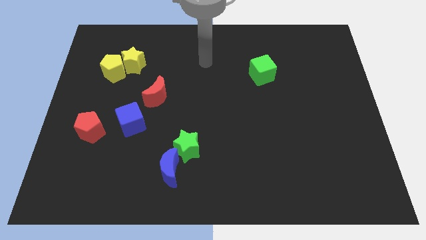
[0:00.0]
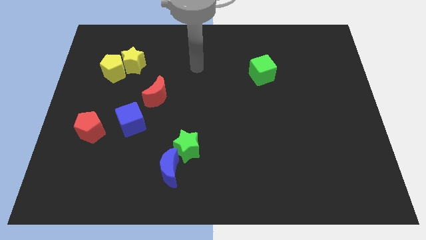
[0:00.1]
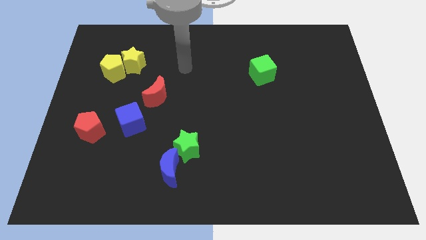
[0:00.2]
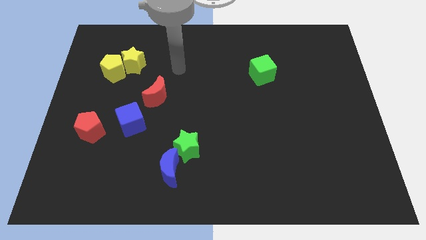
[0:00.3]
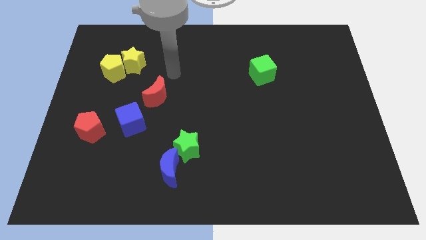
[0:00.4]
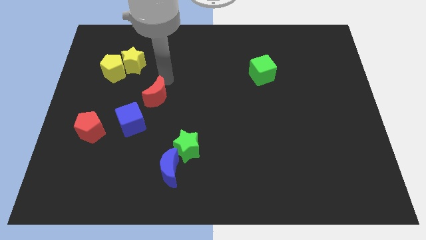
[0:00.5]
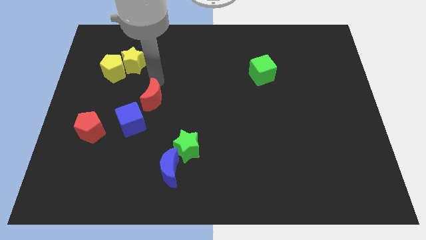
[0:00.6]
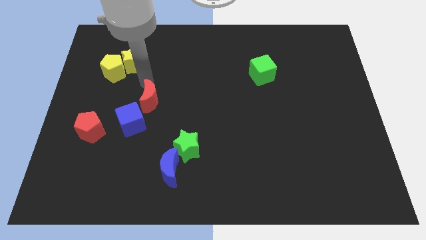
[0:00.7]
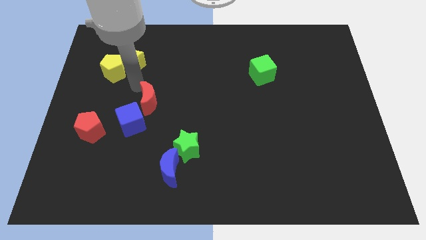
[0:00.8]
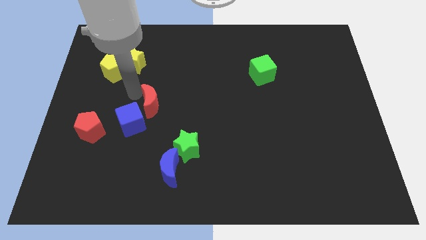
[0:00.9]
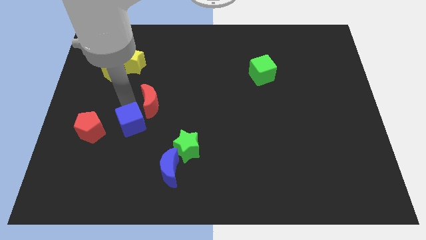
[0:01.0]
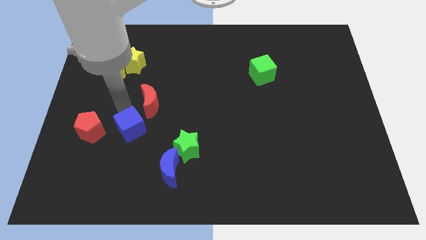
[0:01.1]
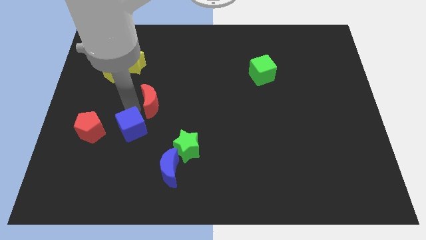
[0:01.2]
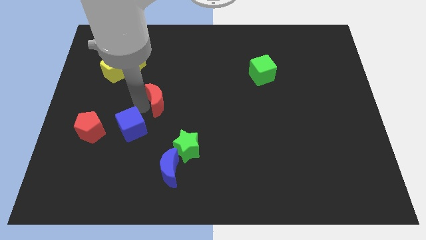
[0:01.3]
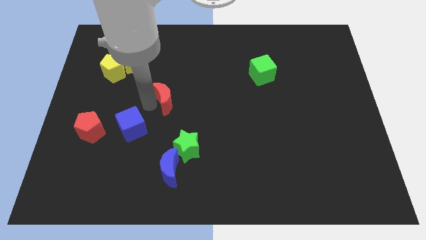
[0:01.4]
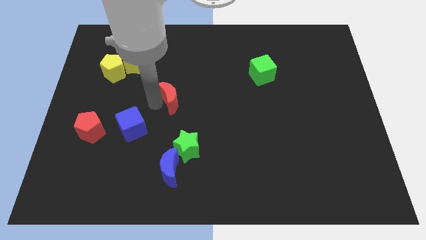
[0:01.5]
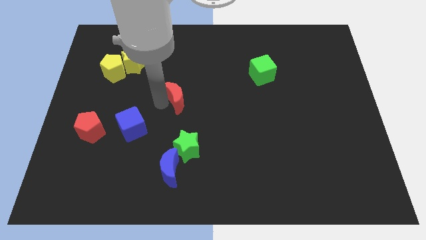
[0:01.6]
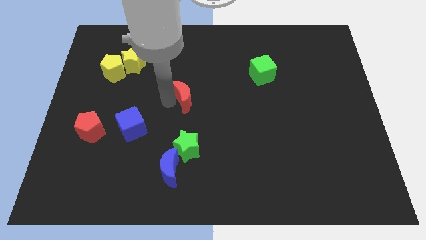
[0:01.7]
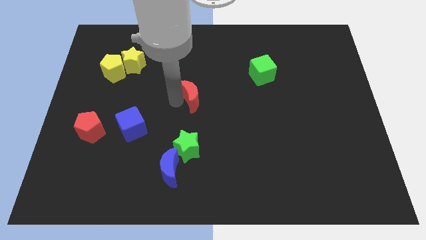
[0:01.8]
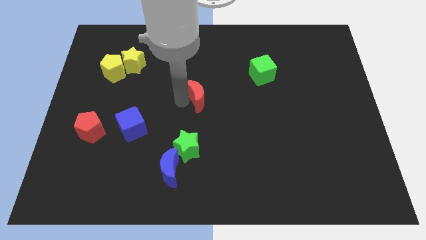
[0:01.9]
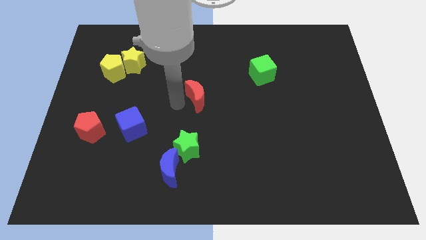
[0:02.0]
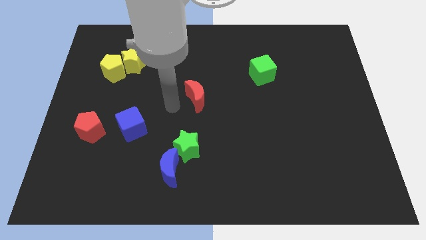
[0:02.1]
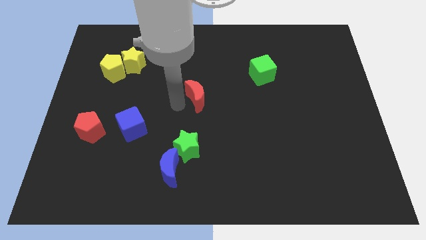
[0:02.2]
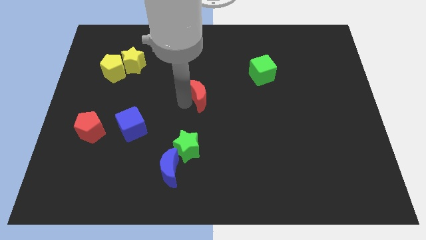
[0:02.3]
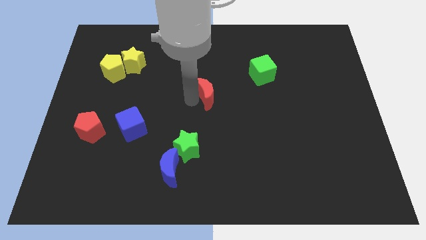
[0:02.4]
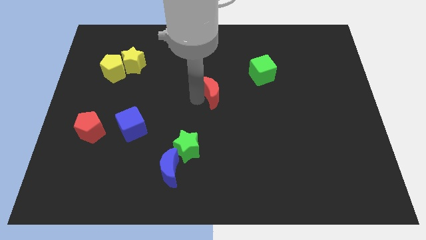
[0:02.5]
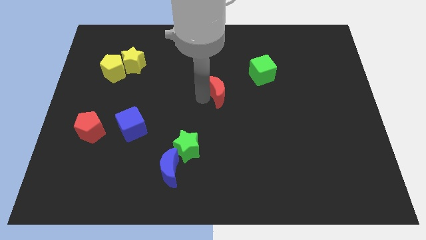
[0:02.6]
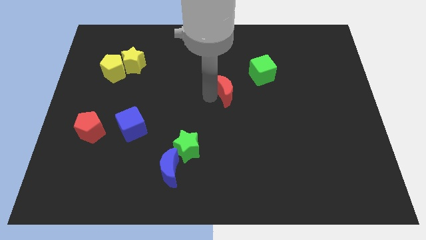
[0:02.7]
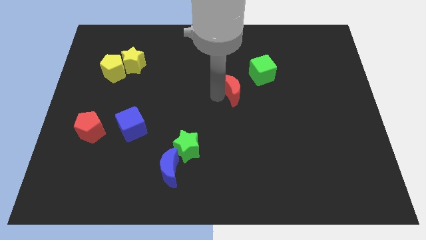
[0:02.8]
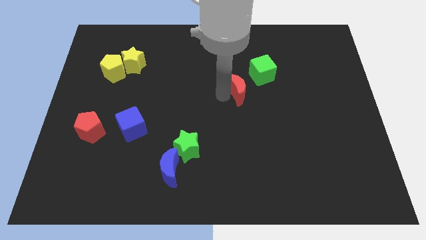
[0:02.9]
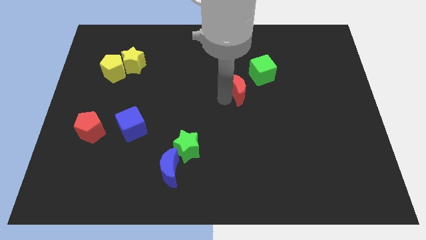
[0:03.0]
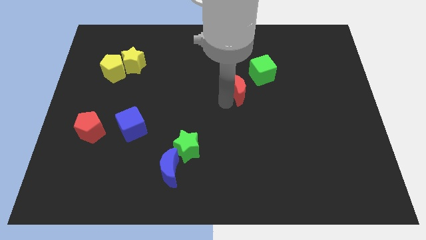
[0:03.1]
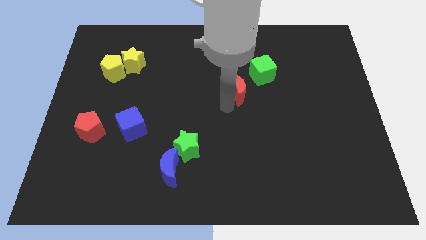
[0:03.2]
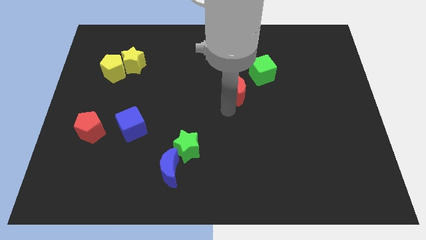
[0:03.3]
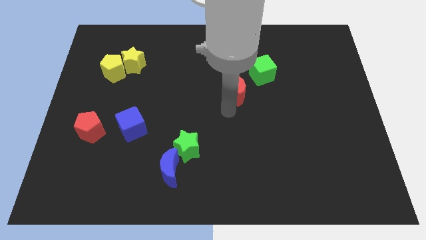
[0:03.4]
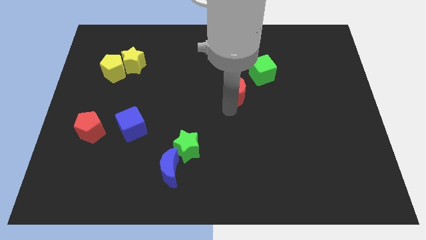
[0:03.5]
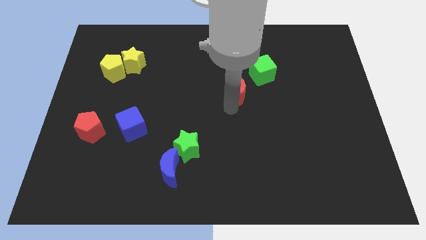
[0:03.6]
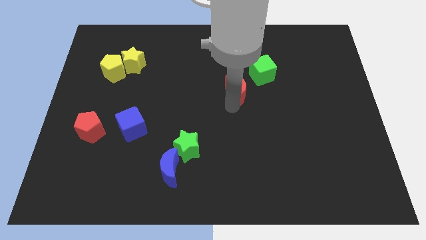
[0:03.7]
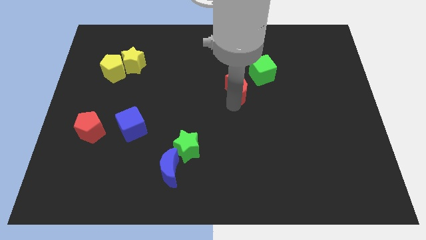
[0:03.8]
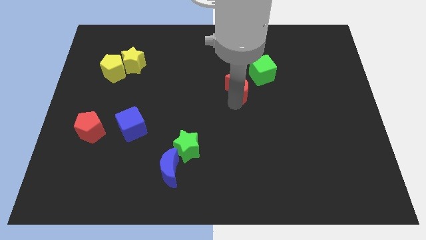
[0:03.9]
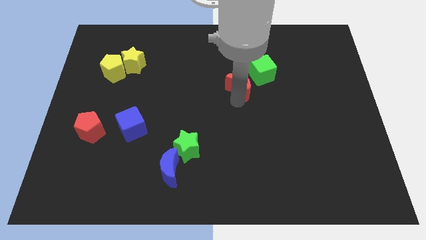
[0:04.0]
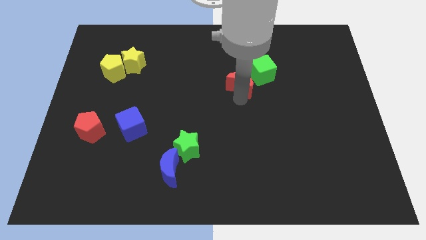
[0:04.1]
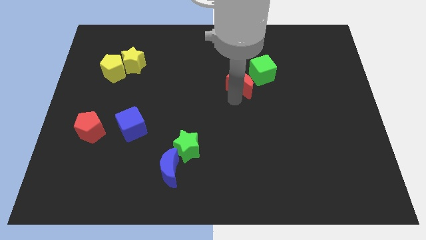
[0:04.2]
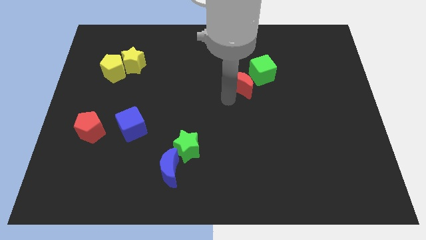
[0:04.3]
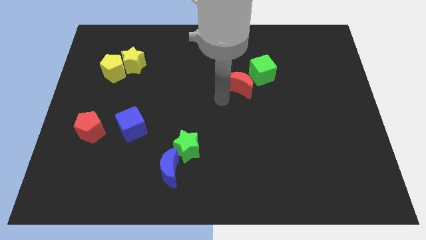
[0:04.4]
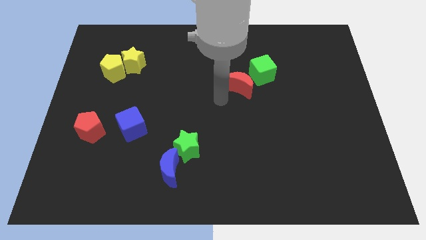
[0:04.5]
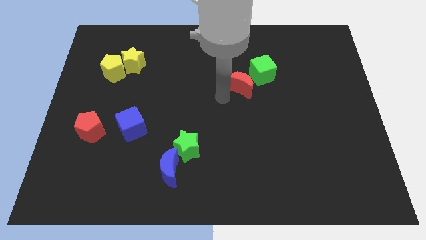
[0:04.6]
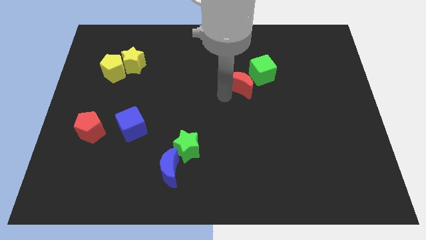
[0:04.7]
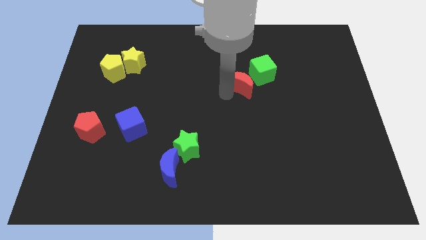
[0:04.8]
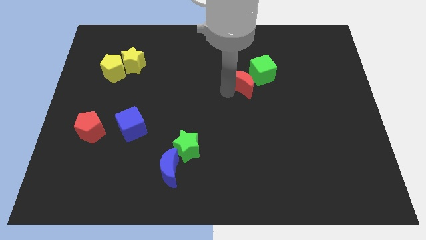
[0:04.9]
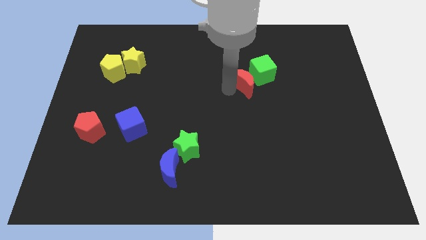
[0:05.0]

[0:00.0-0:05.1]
put the red moon close to the green cube

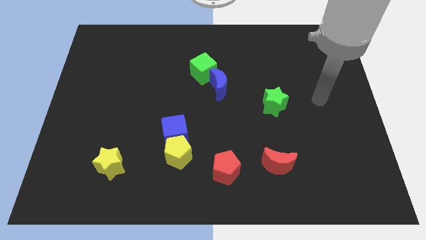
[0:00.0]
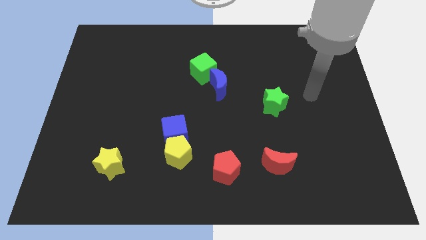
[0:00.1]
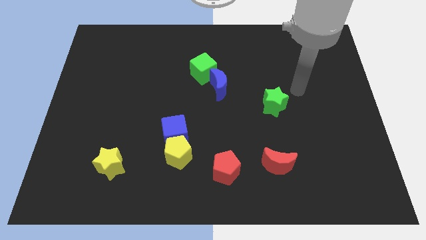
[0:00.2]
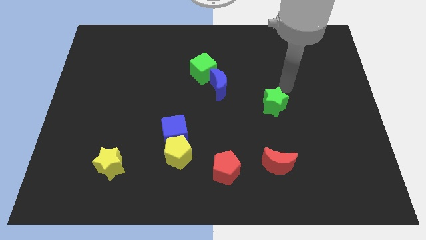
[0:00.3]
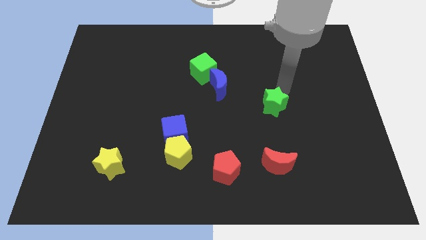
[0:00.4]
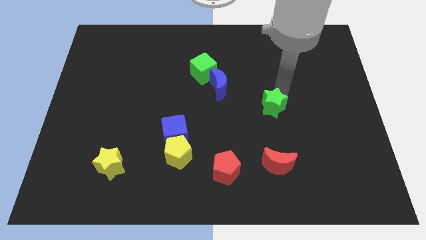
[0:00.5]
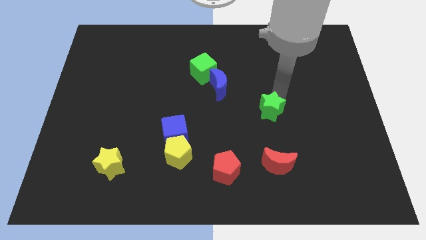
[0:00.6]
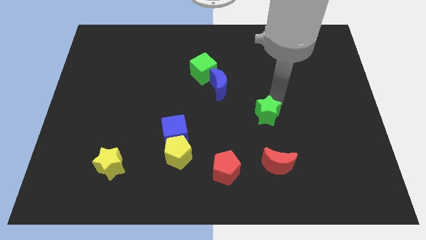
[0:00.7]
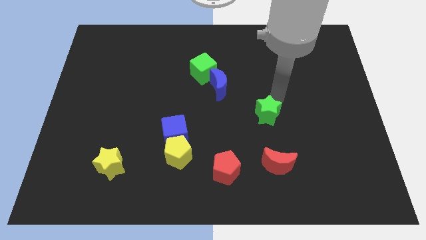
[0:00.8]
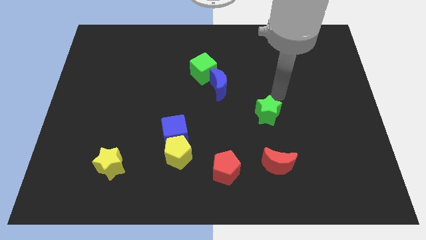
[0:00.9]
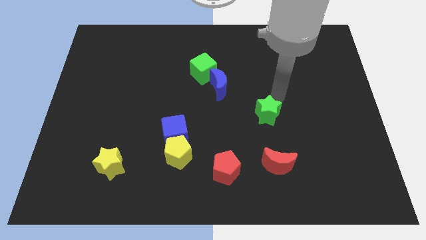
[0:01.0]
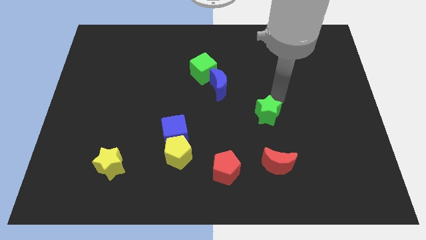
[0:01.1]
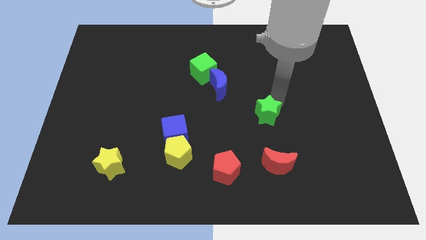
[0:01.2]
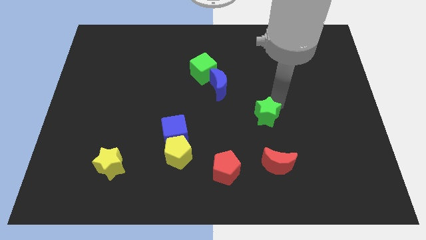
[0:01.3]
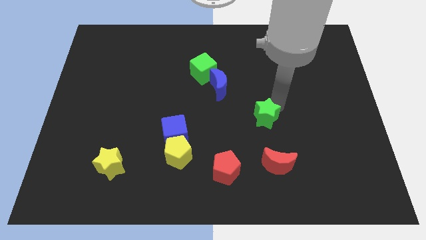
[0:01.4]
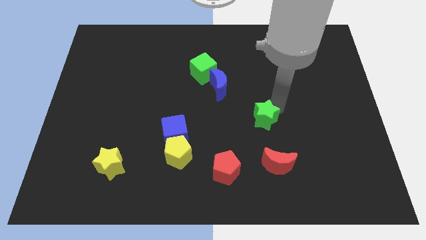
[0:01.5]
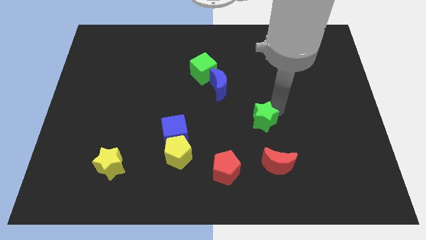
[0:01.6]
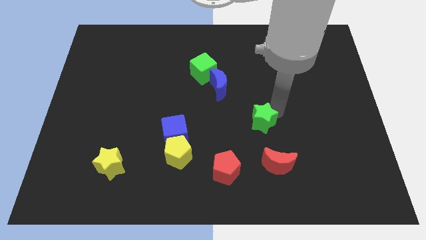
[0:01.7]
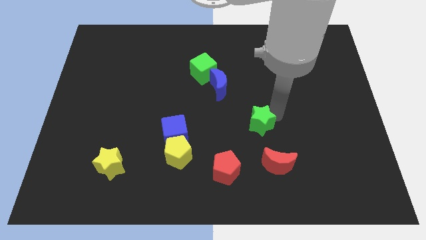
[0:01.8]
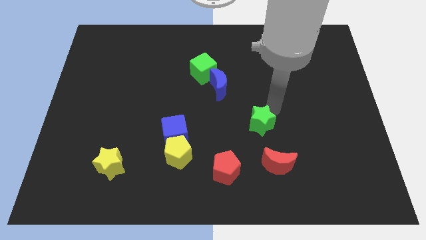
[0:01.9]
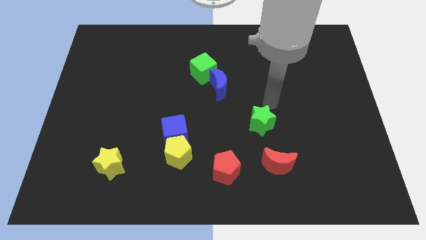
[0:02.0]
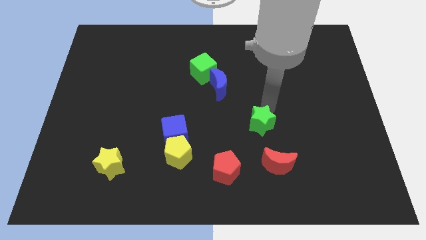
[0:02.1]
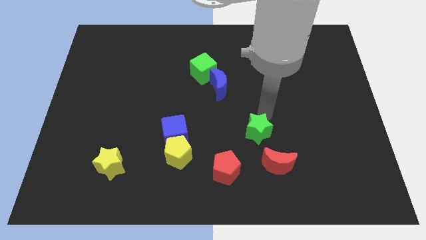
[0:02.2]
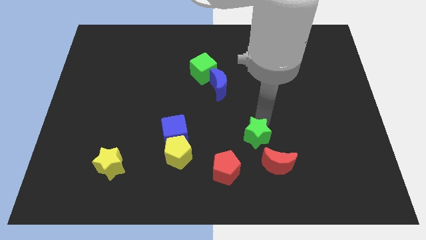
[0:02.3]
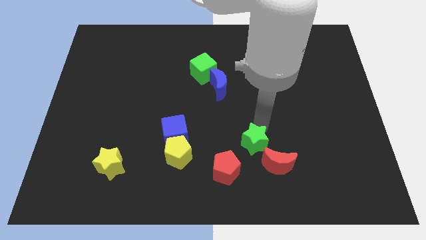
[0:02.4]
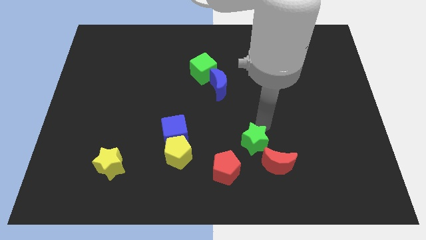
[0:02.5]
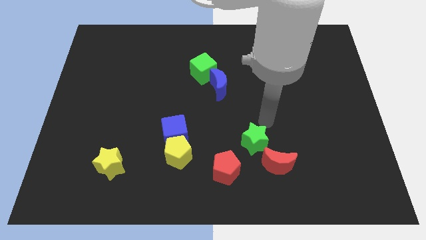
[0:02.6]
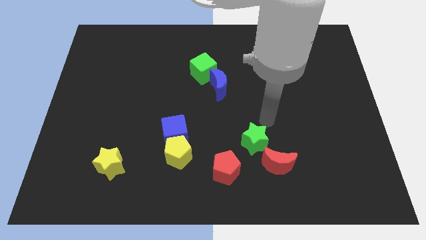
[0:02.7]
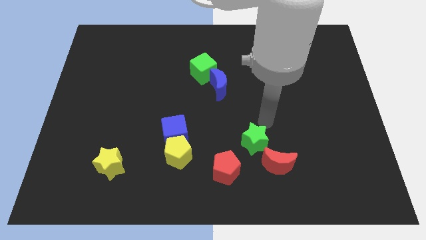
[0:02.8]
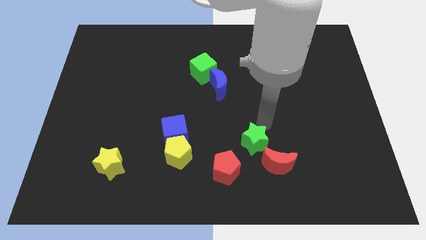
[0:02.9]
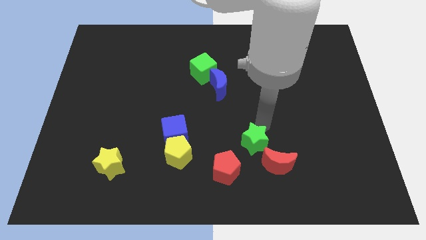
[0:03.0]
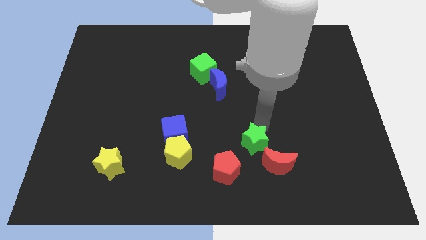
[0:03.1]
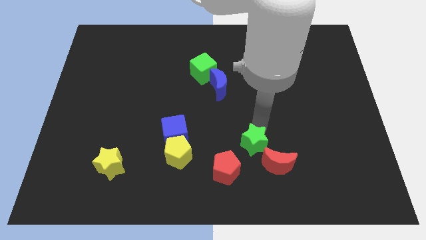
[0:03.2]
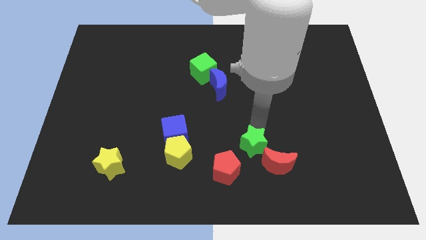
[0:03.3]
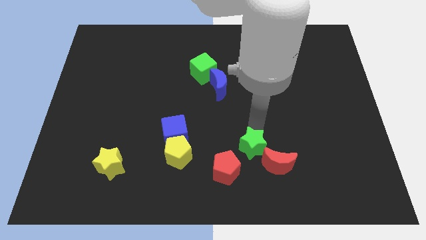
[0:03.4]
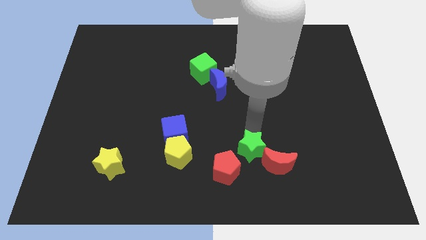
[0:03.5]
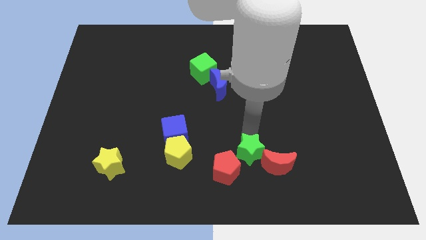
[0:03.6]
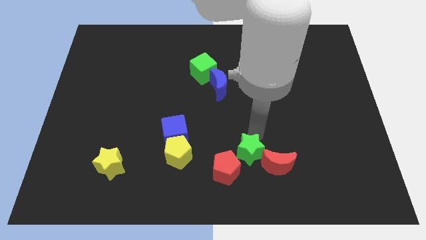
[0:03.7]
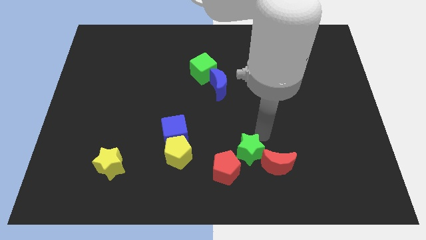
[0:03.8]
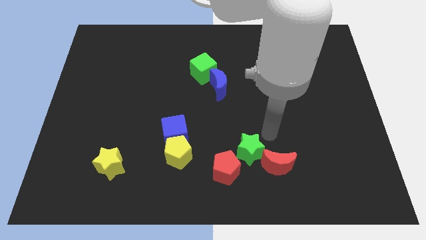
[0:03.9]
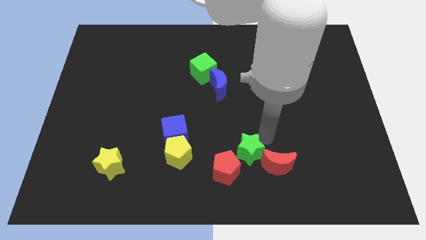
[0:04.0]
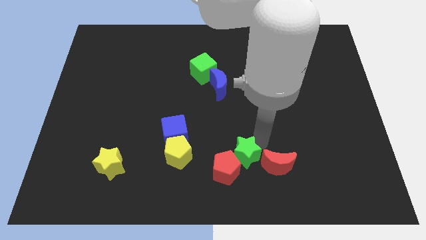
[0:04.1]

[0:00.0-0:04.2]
slide the green star next to the red pentagon
